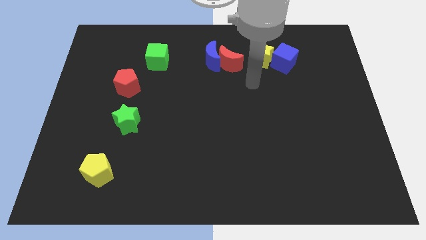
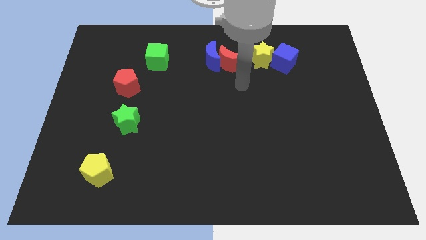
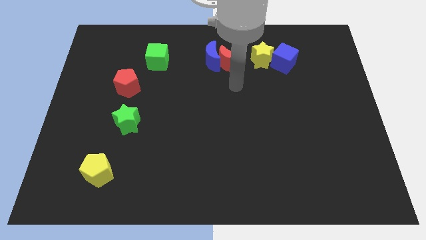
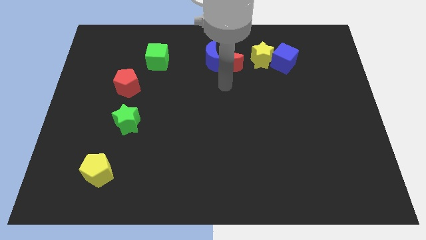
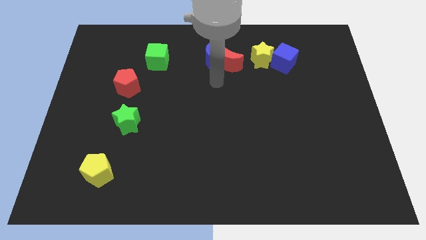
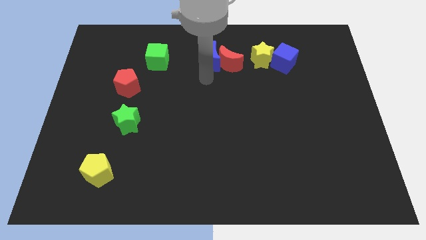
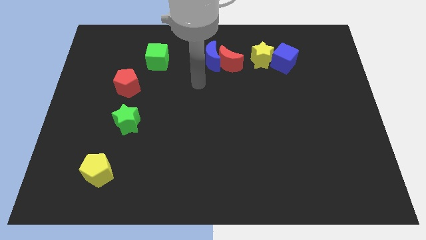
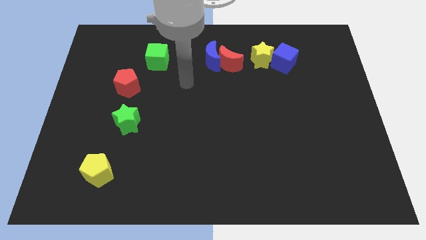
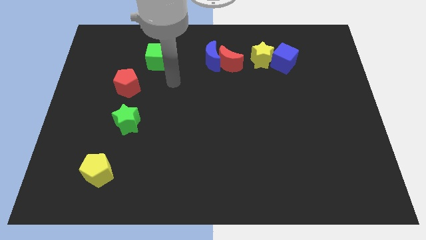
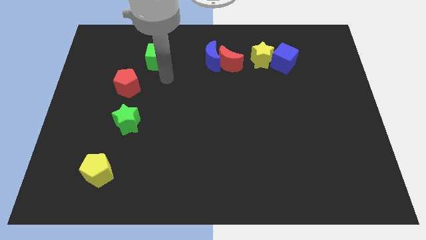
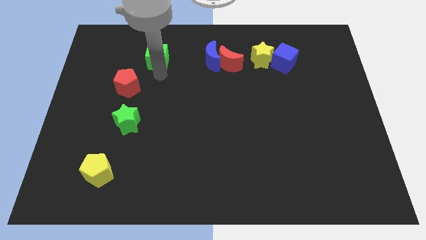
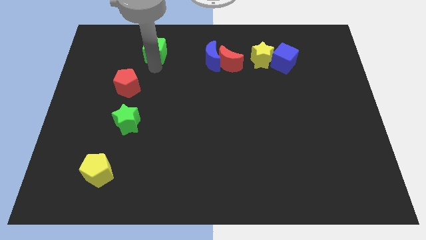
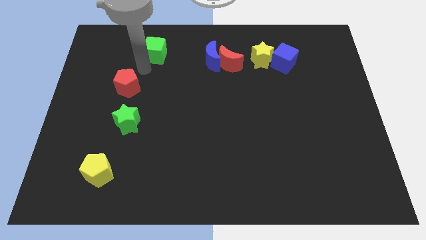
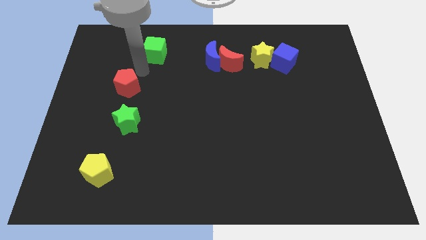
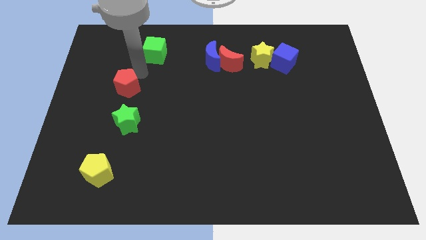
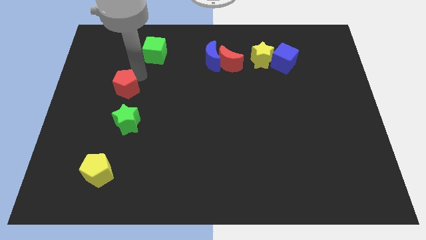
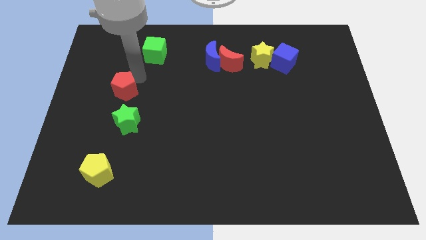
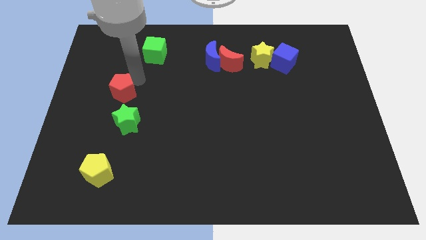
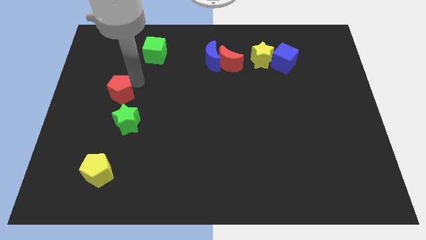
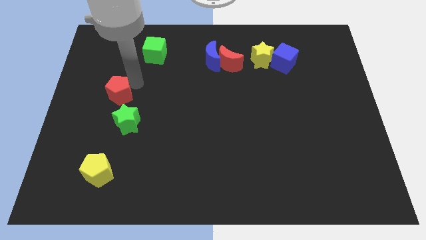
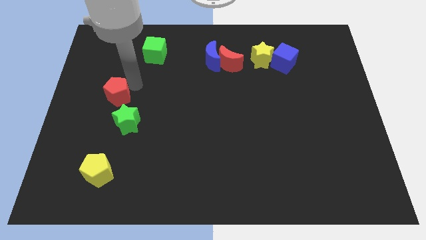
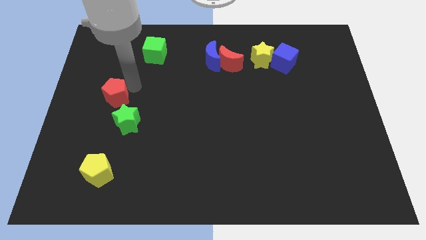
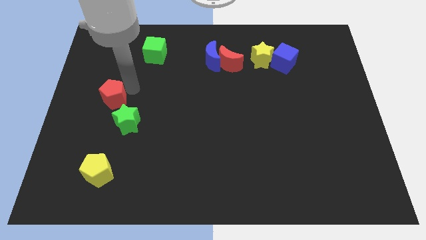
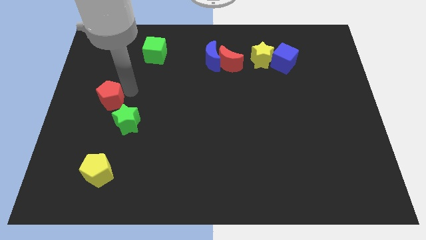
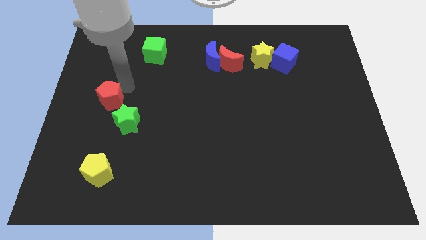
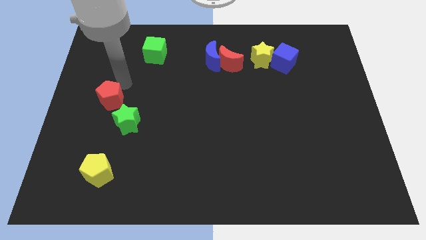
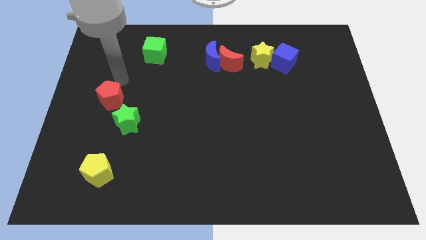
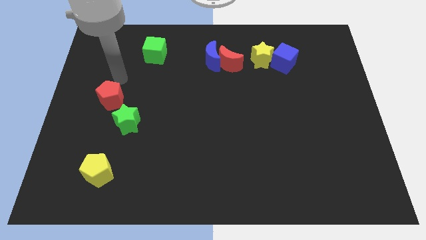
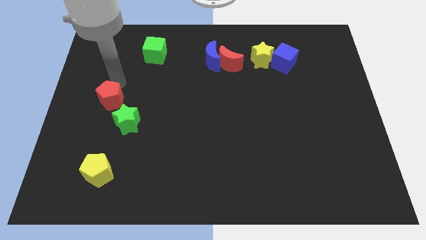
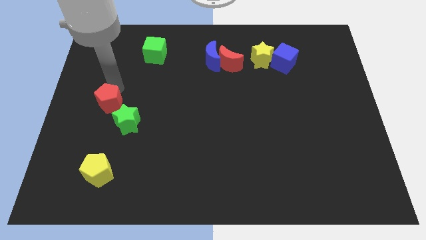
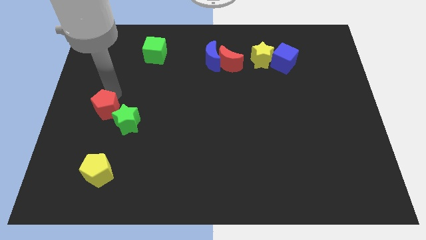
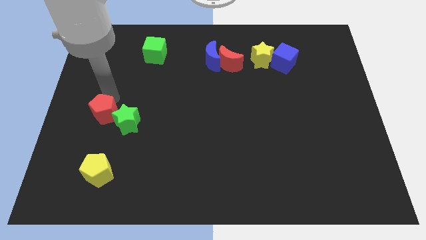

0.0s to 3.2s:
slide the red pentagon downwards a bit

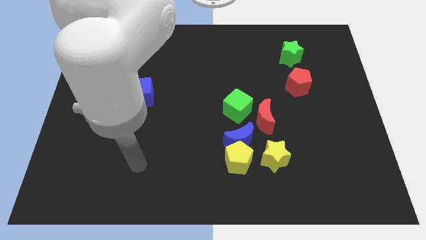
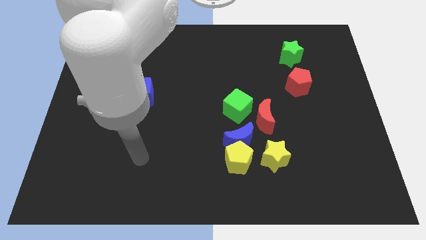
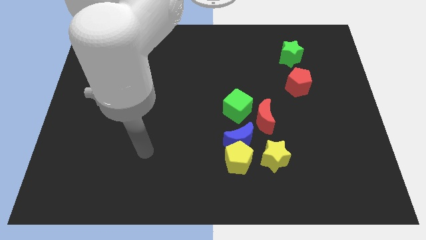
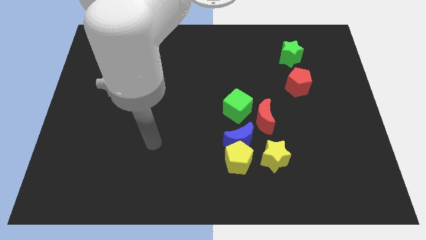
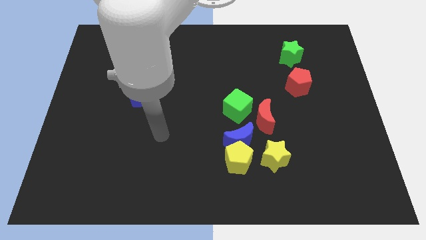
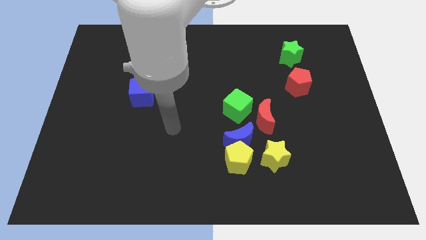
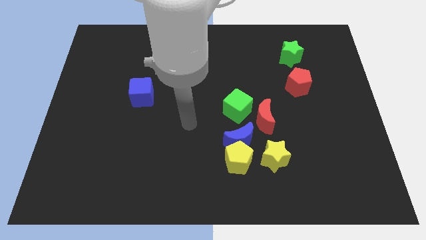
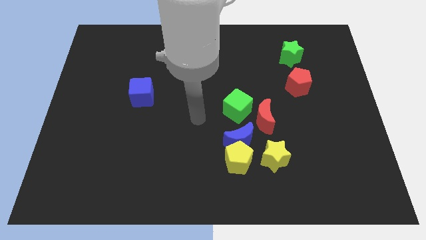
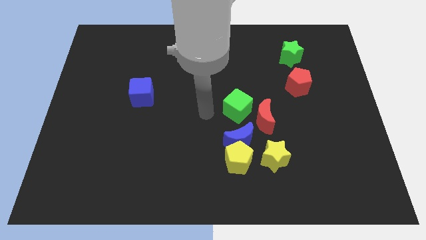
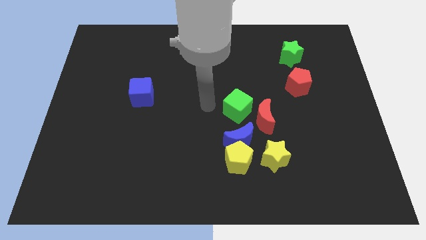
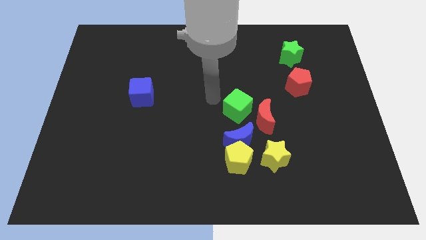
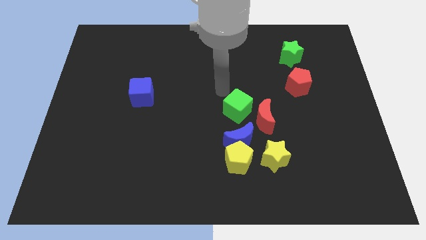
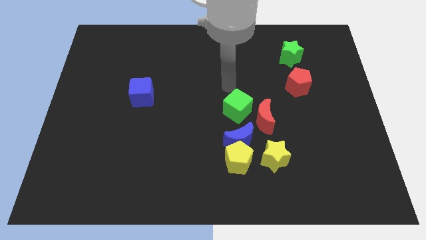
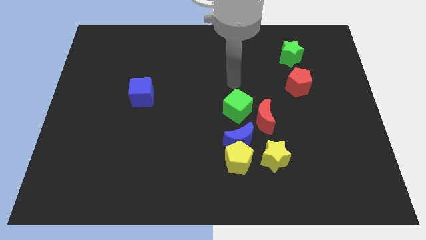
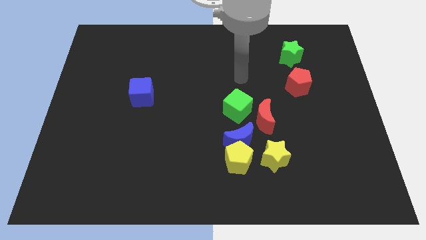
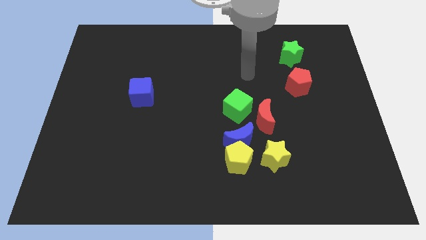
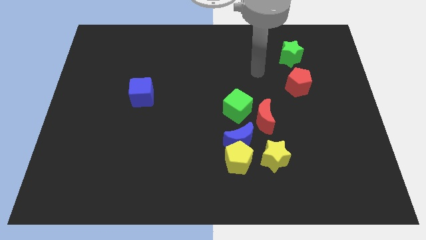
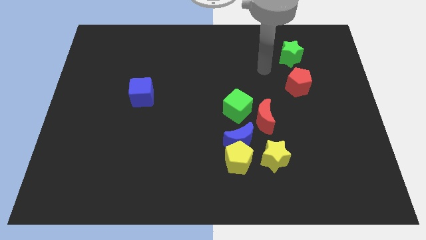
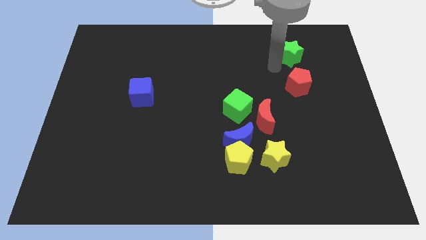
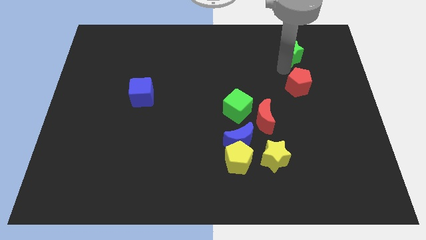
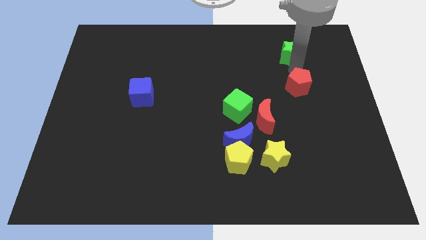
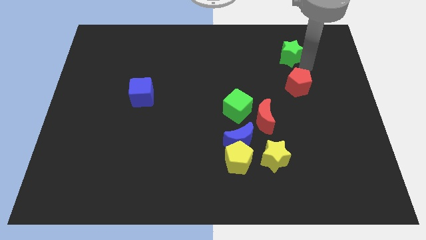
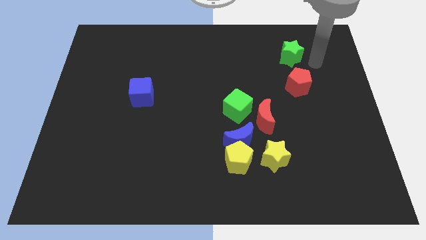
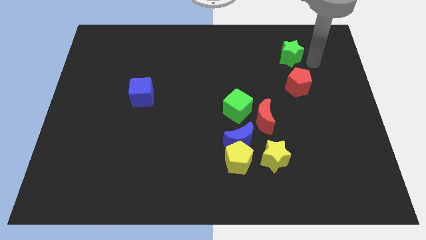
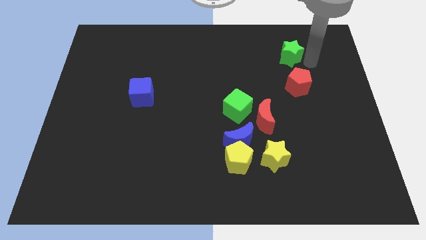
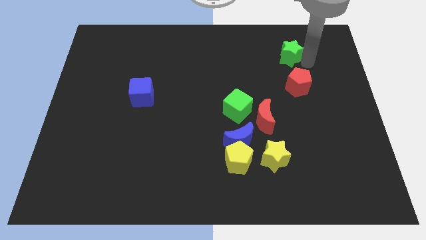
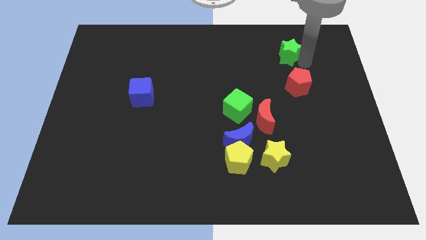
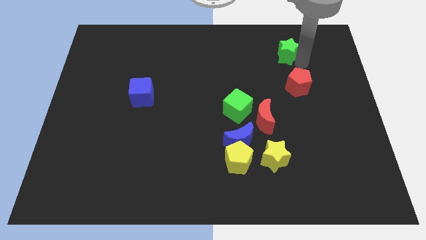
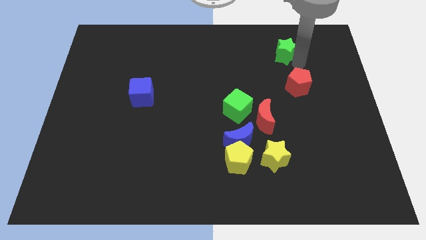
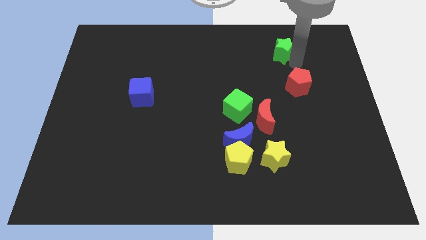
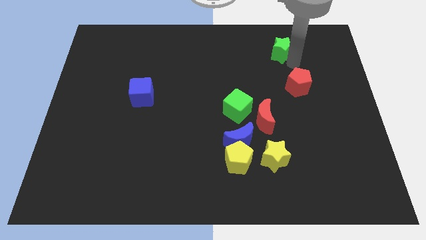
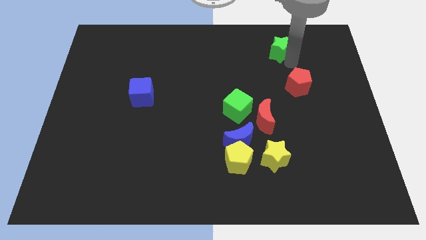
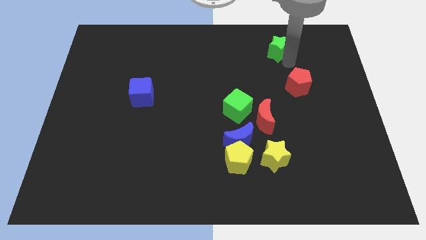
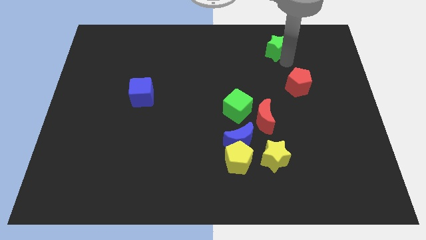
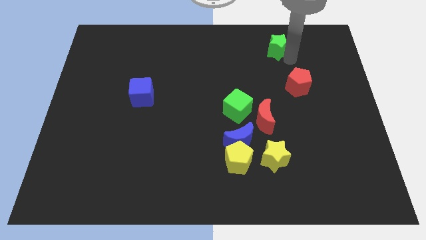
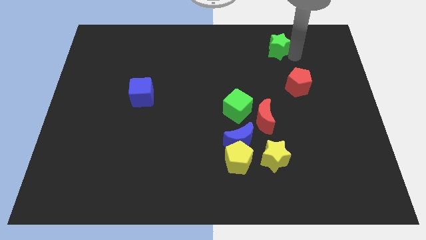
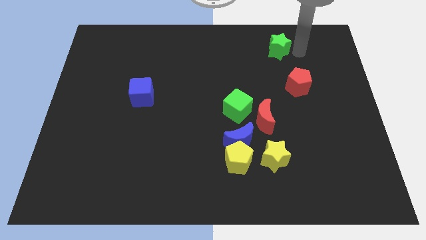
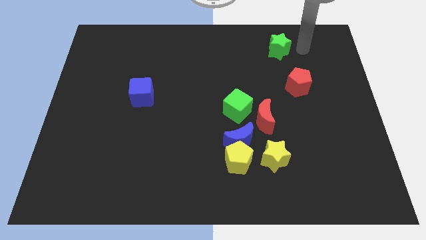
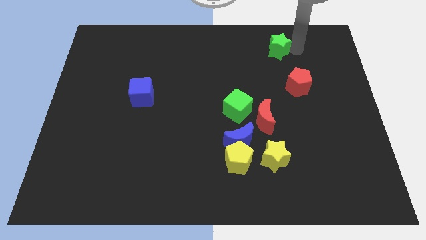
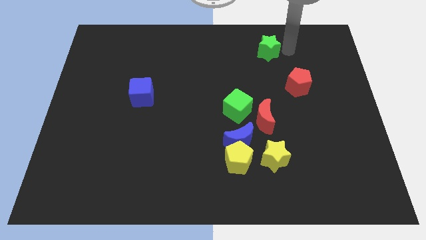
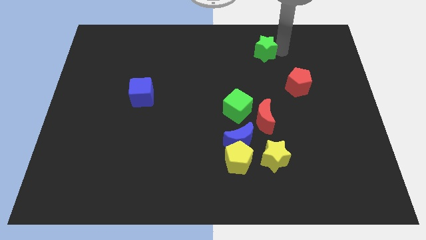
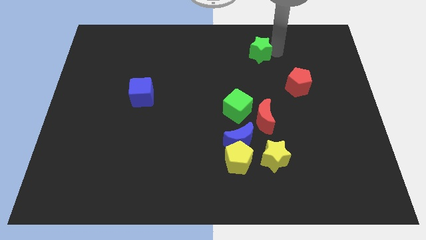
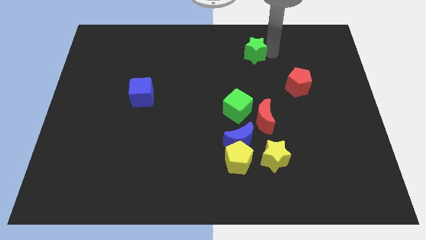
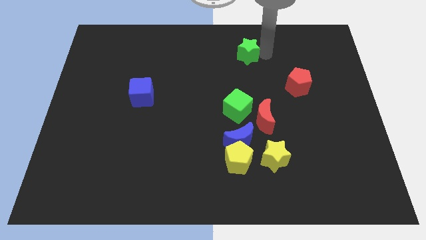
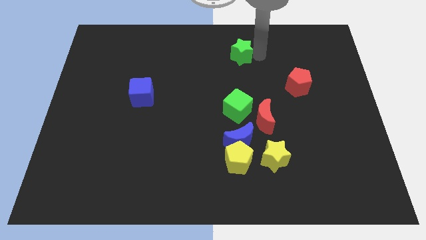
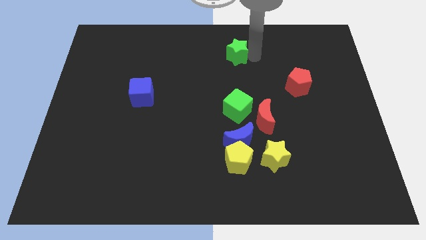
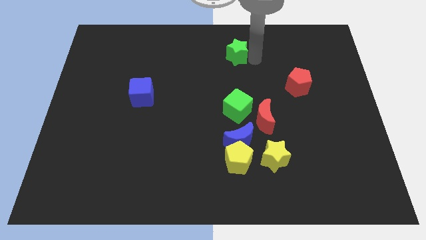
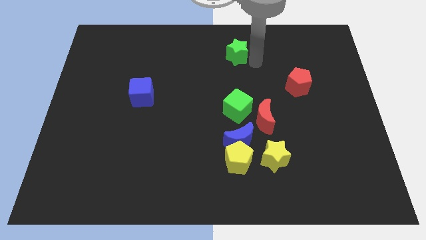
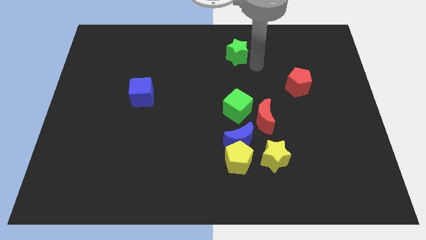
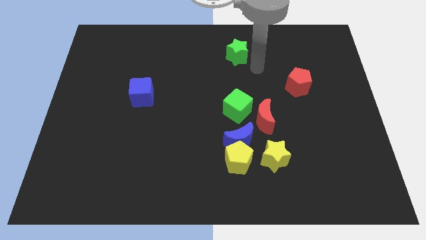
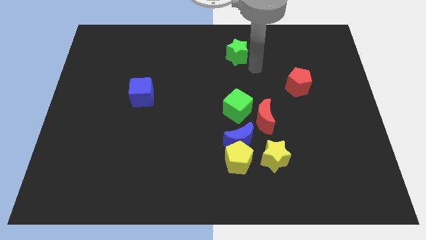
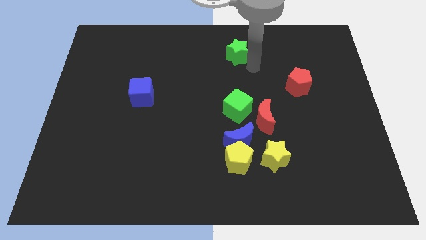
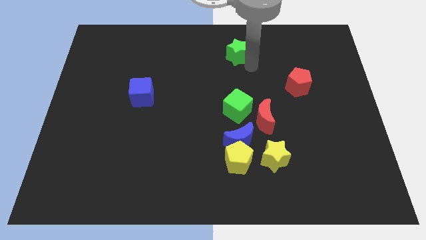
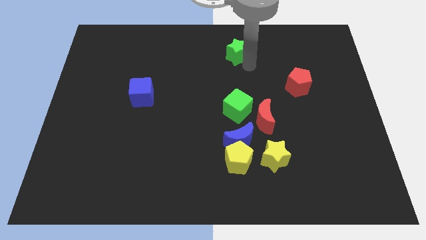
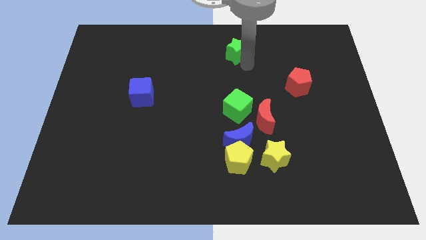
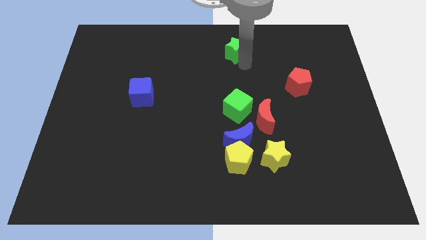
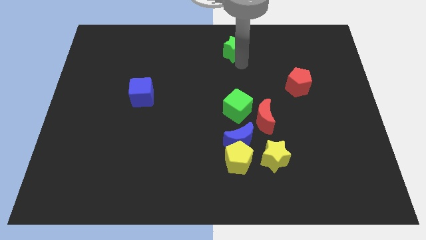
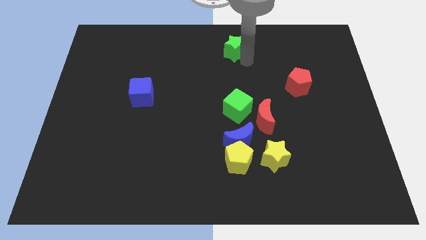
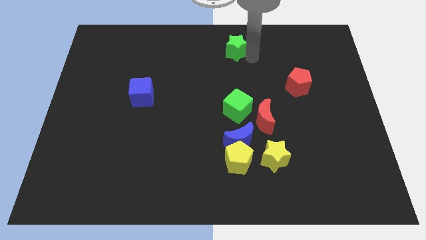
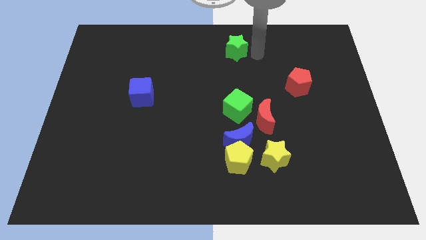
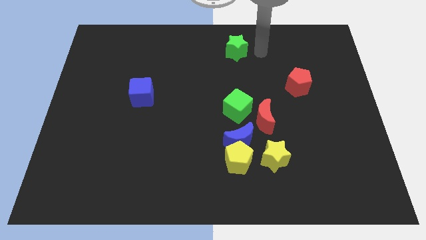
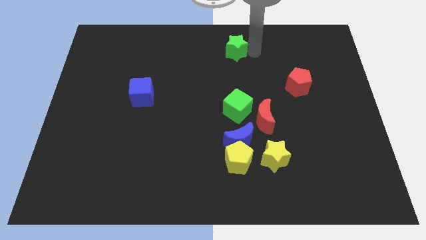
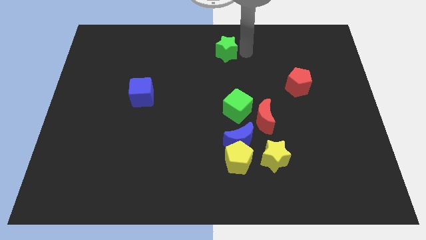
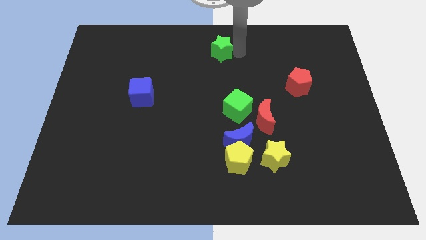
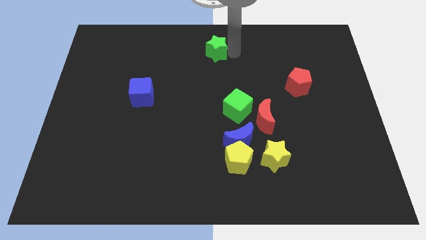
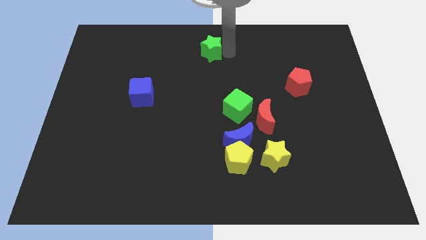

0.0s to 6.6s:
move the green star left
